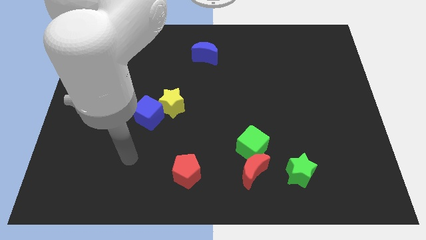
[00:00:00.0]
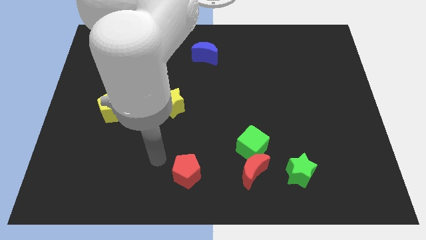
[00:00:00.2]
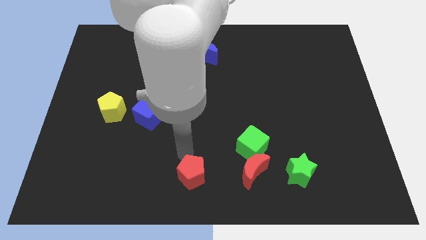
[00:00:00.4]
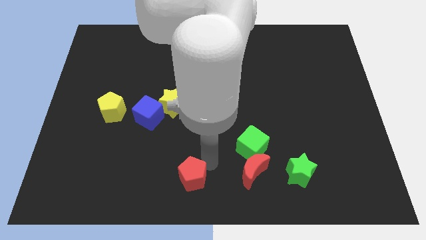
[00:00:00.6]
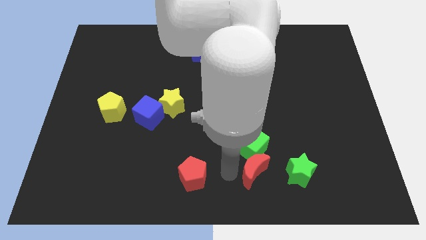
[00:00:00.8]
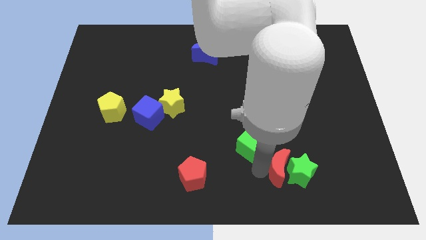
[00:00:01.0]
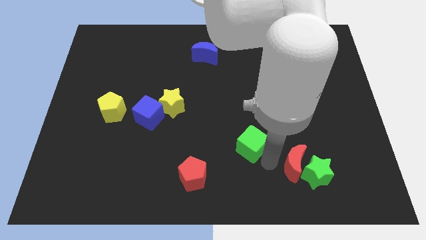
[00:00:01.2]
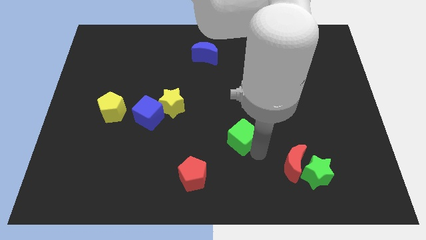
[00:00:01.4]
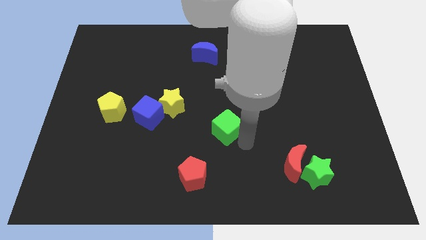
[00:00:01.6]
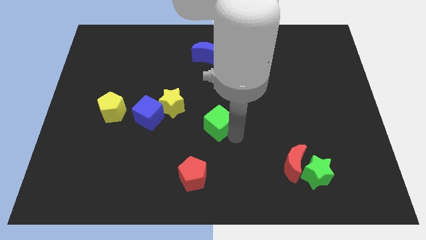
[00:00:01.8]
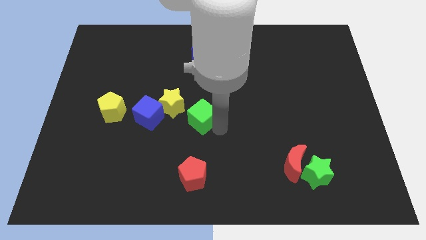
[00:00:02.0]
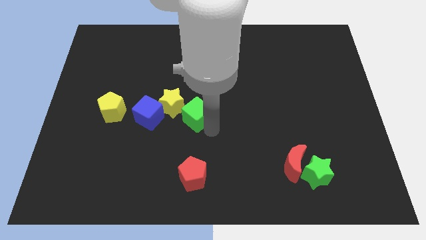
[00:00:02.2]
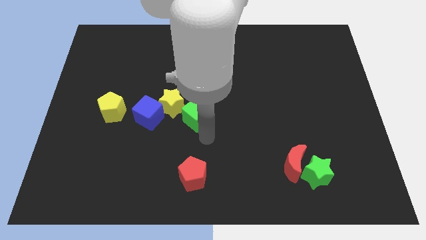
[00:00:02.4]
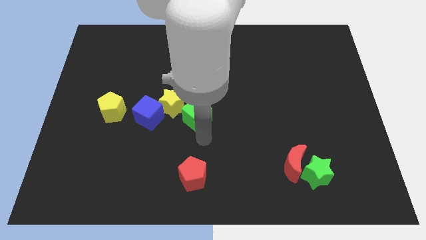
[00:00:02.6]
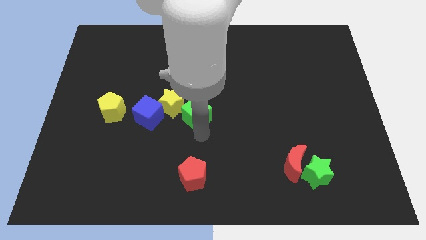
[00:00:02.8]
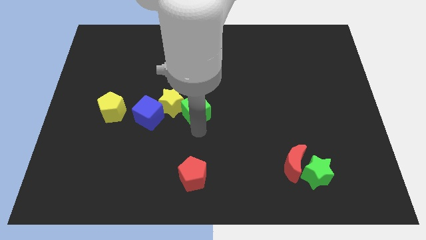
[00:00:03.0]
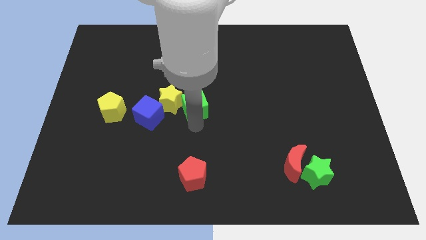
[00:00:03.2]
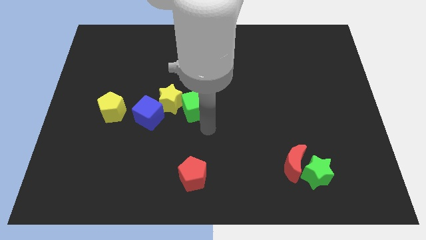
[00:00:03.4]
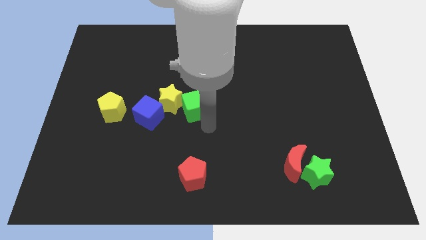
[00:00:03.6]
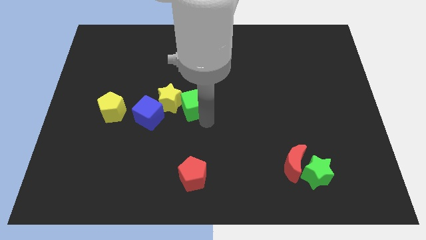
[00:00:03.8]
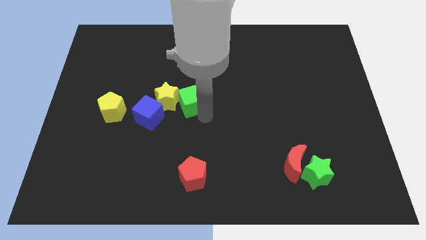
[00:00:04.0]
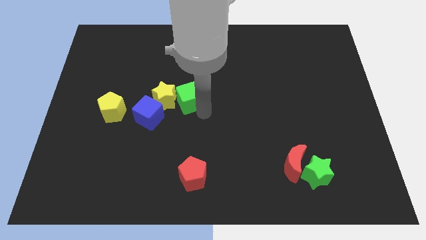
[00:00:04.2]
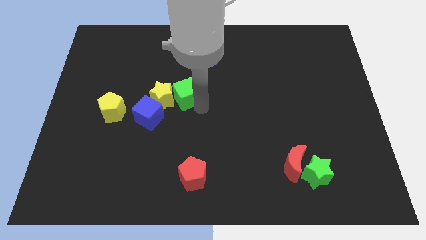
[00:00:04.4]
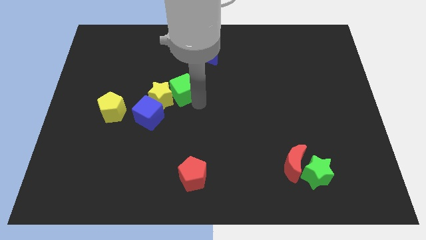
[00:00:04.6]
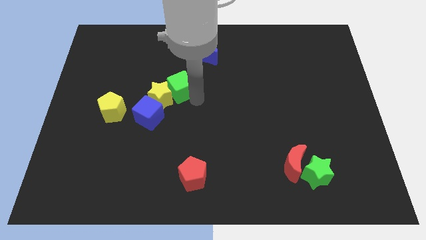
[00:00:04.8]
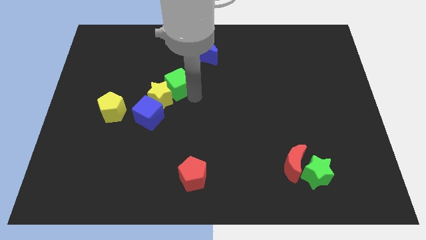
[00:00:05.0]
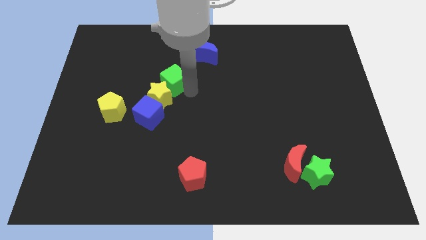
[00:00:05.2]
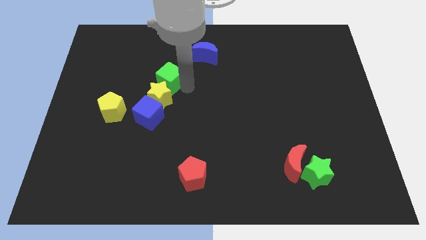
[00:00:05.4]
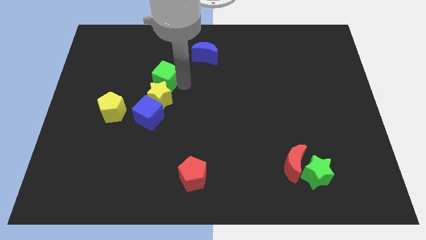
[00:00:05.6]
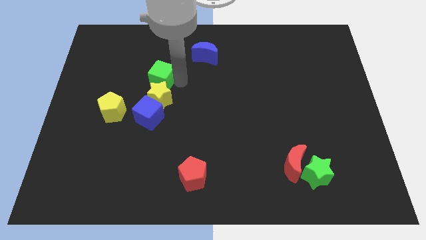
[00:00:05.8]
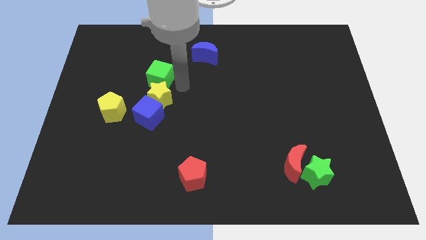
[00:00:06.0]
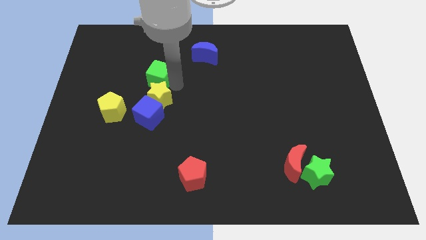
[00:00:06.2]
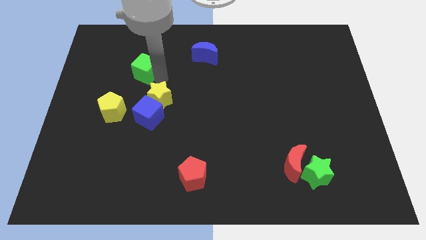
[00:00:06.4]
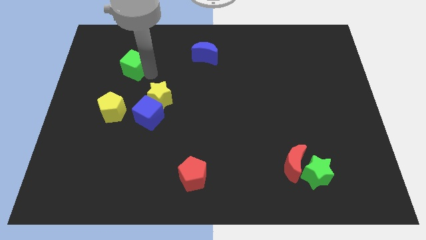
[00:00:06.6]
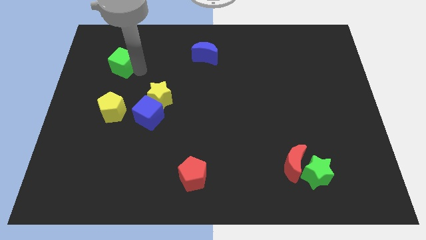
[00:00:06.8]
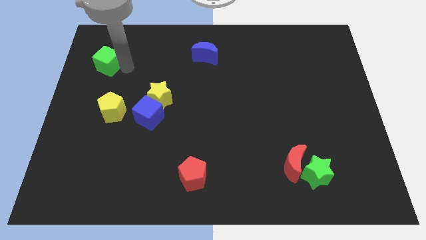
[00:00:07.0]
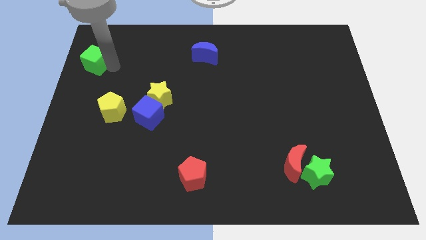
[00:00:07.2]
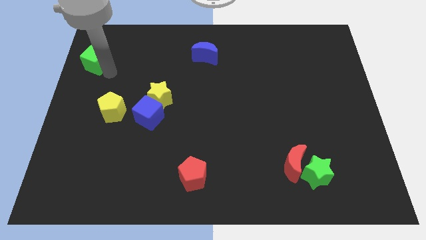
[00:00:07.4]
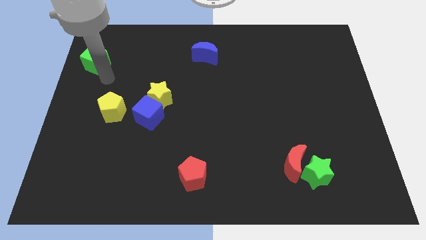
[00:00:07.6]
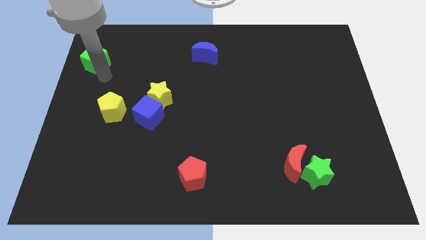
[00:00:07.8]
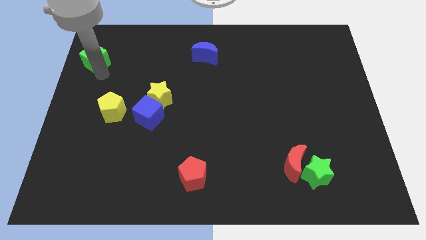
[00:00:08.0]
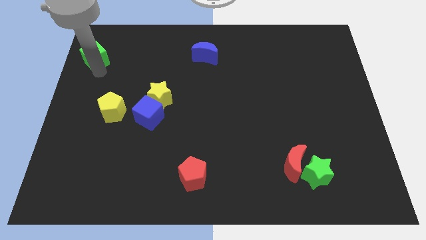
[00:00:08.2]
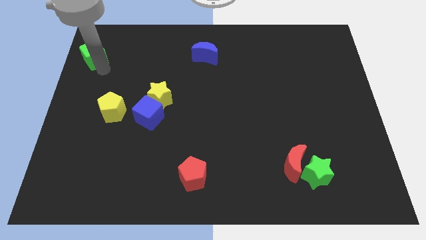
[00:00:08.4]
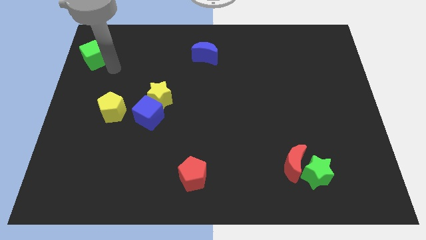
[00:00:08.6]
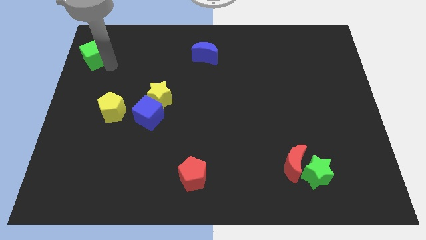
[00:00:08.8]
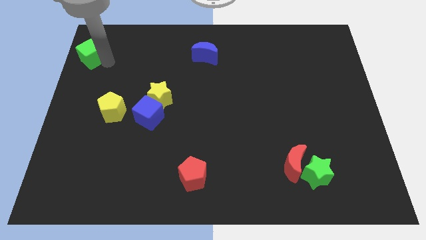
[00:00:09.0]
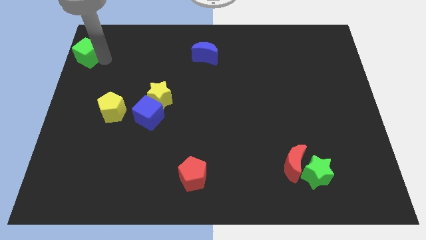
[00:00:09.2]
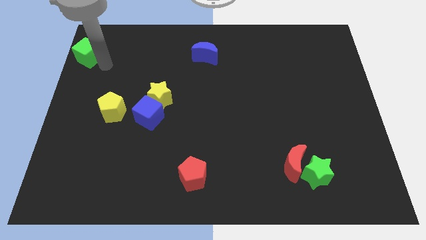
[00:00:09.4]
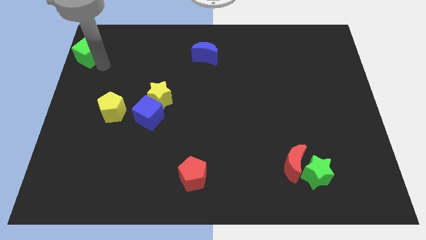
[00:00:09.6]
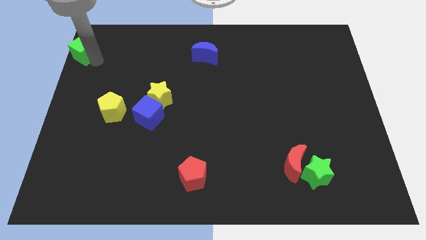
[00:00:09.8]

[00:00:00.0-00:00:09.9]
put the green cube to the upper left corner

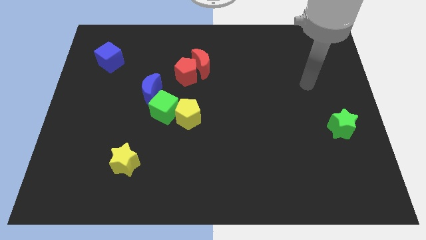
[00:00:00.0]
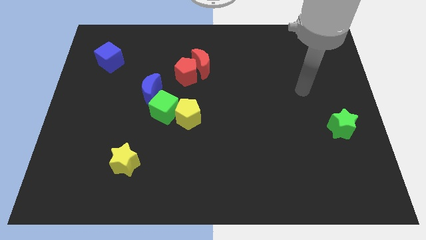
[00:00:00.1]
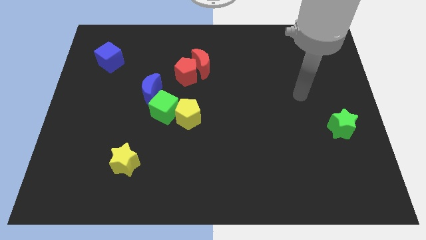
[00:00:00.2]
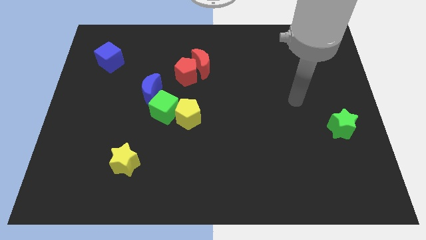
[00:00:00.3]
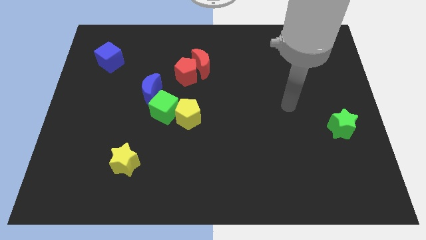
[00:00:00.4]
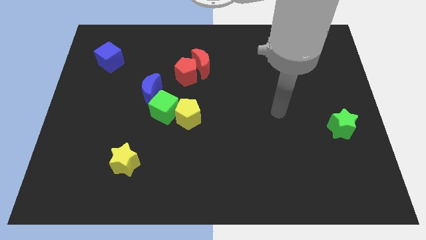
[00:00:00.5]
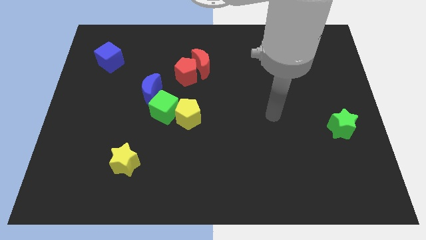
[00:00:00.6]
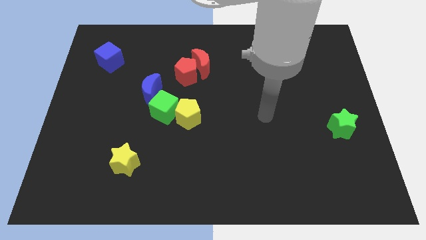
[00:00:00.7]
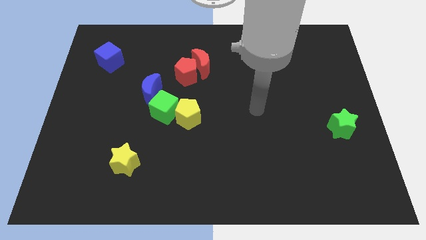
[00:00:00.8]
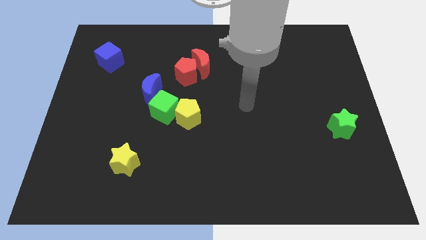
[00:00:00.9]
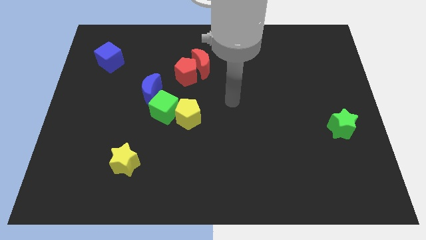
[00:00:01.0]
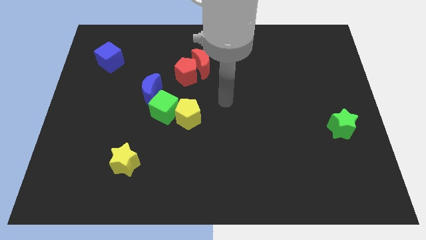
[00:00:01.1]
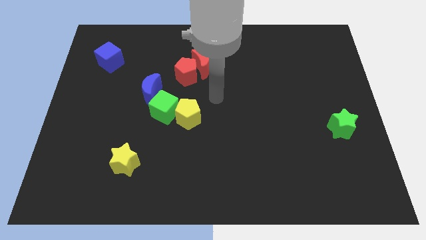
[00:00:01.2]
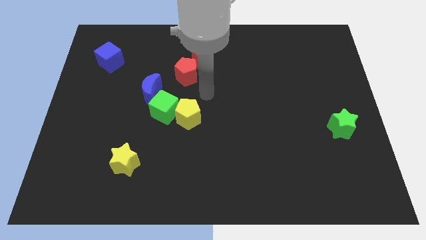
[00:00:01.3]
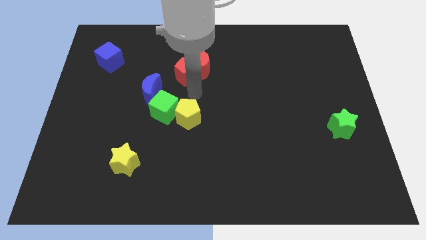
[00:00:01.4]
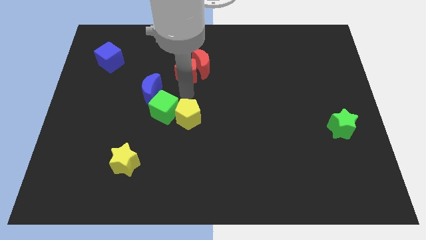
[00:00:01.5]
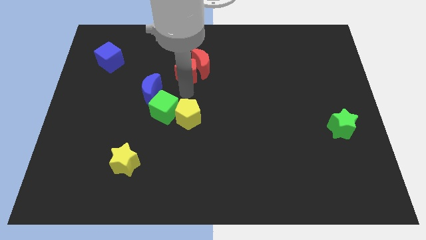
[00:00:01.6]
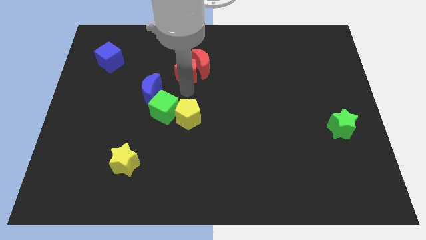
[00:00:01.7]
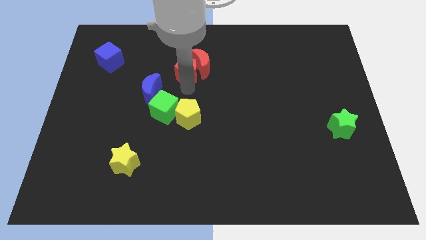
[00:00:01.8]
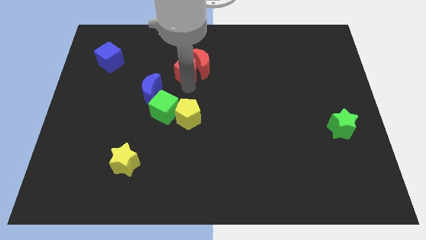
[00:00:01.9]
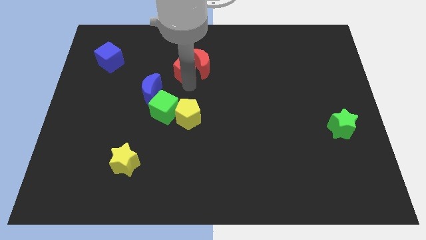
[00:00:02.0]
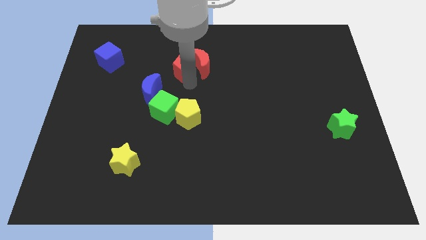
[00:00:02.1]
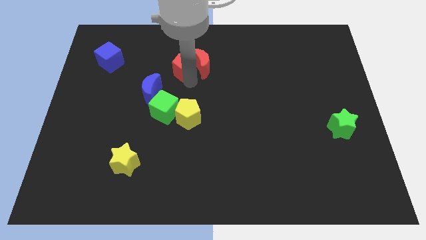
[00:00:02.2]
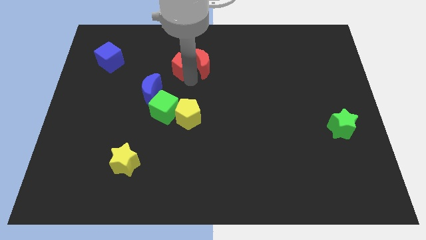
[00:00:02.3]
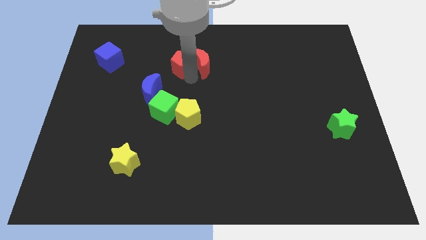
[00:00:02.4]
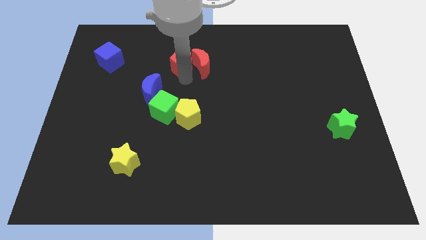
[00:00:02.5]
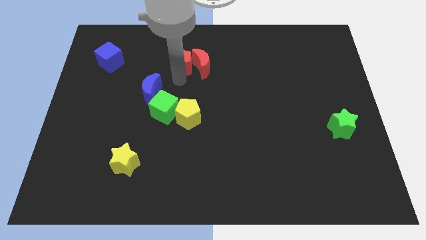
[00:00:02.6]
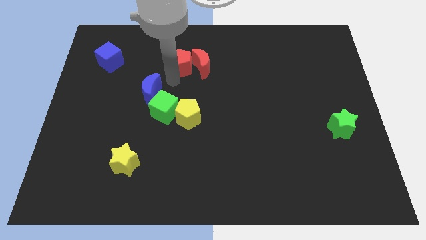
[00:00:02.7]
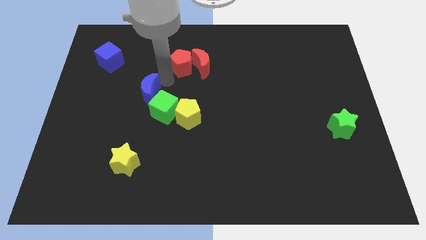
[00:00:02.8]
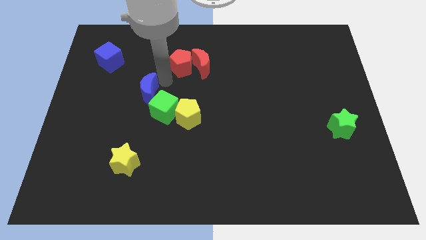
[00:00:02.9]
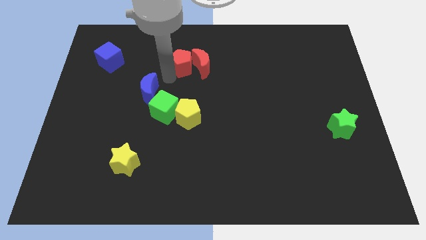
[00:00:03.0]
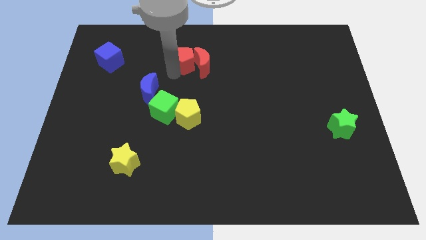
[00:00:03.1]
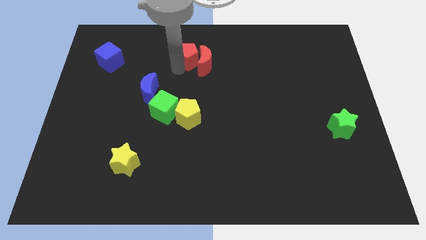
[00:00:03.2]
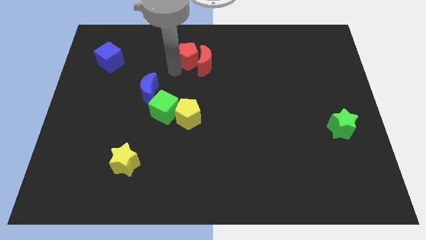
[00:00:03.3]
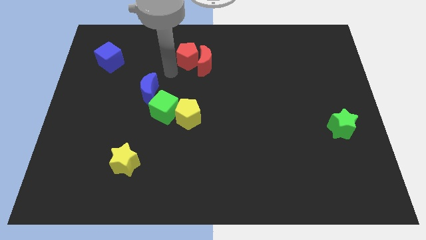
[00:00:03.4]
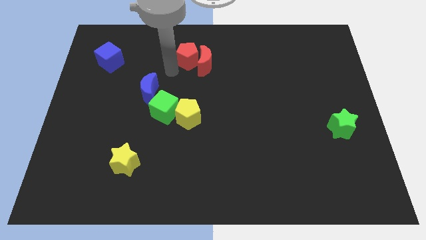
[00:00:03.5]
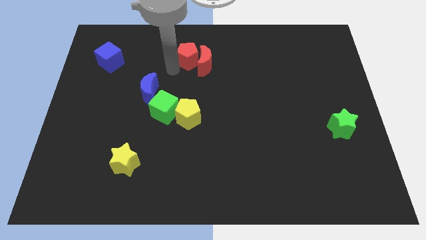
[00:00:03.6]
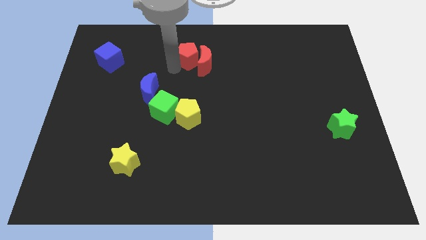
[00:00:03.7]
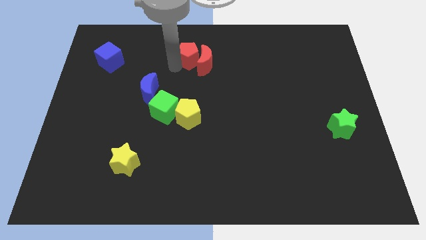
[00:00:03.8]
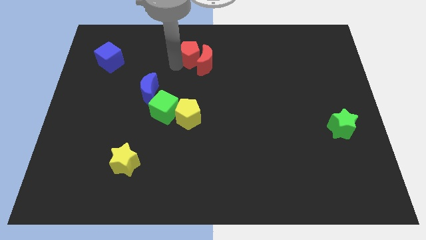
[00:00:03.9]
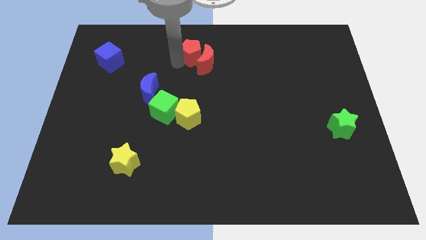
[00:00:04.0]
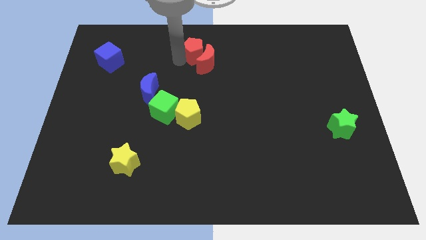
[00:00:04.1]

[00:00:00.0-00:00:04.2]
slide the red pentagon to the top side
